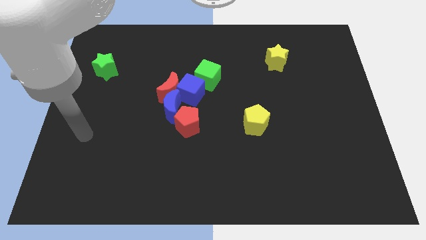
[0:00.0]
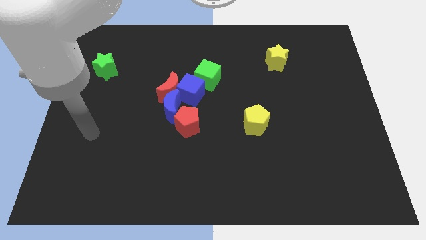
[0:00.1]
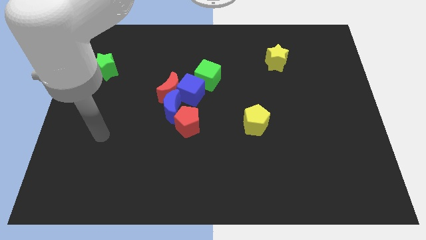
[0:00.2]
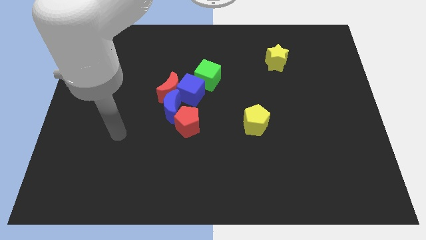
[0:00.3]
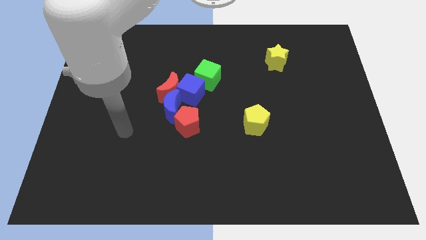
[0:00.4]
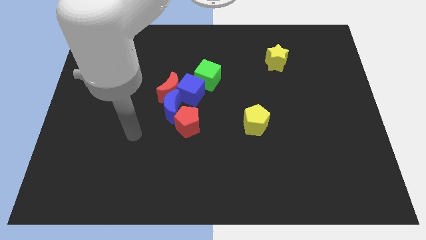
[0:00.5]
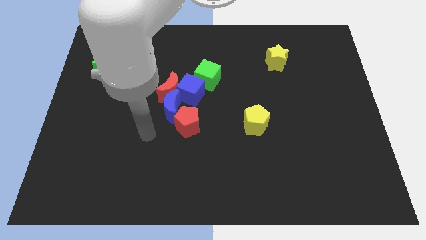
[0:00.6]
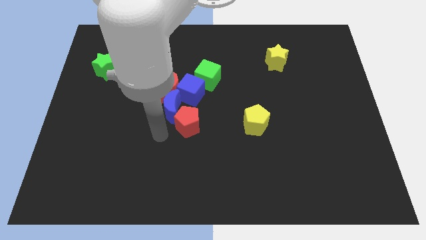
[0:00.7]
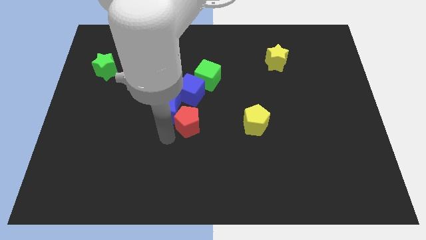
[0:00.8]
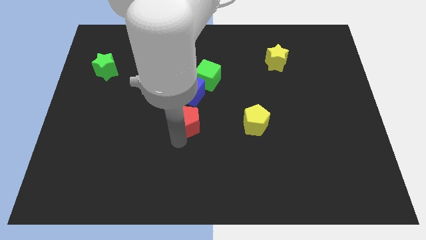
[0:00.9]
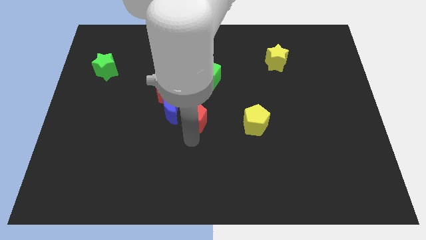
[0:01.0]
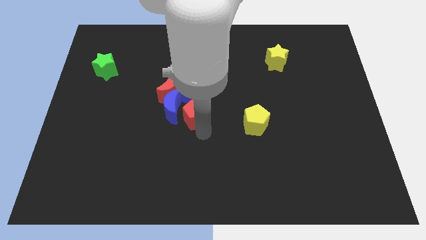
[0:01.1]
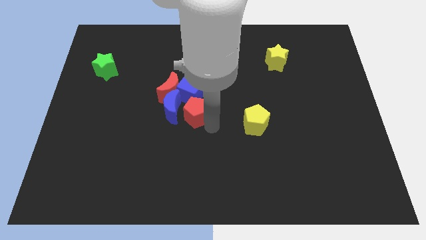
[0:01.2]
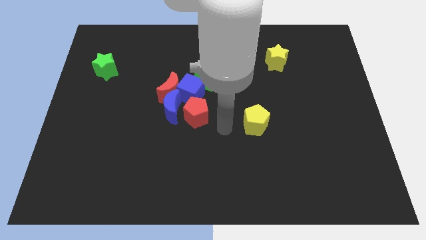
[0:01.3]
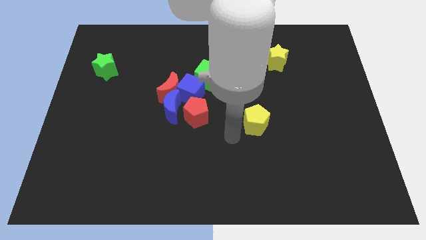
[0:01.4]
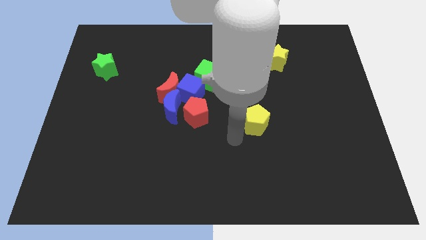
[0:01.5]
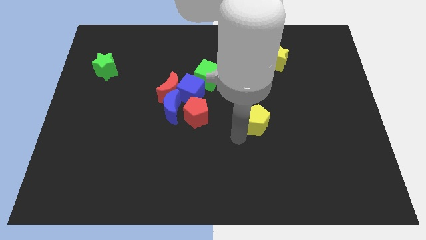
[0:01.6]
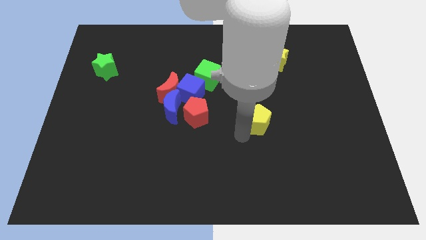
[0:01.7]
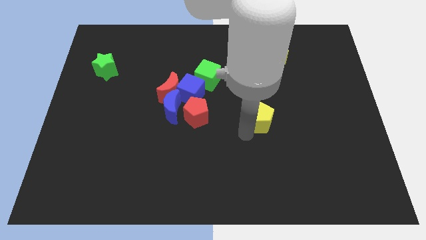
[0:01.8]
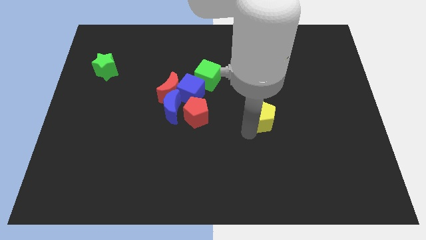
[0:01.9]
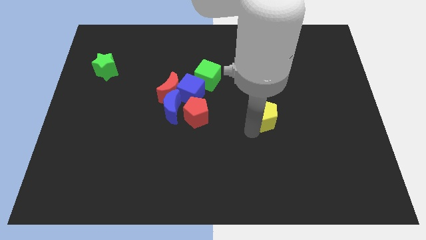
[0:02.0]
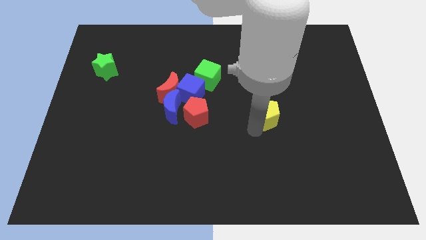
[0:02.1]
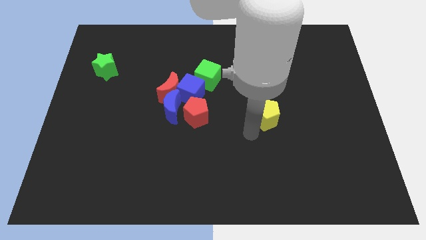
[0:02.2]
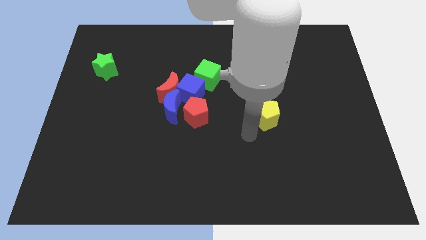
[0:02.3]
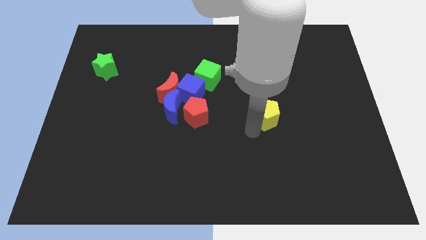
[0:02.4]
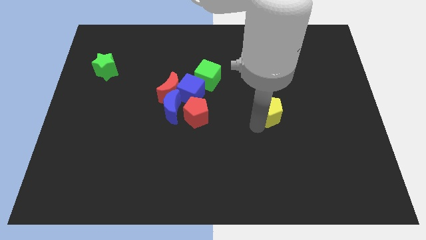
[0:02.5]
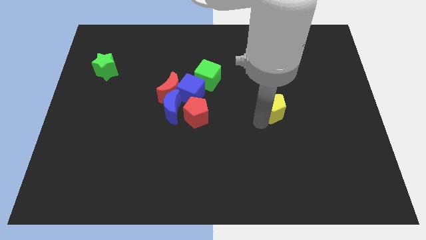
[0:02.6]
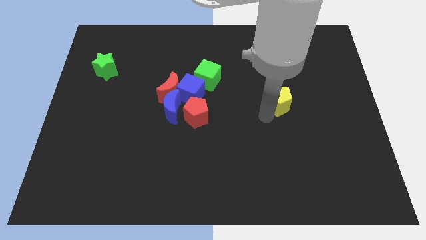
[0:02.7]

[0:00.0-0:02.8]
slide the yellow pentagon a little bit upwards and then right

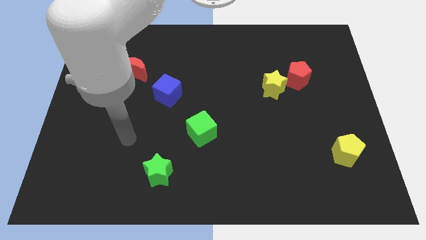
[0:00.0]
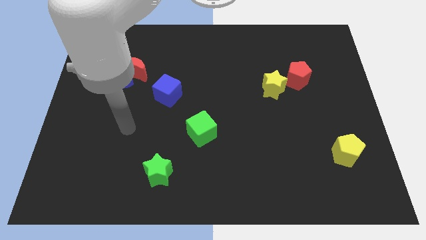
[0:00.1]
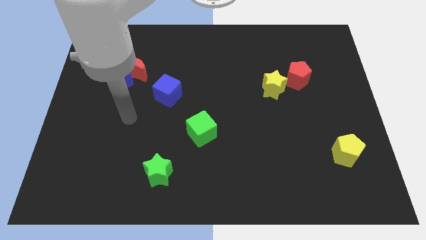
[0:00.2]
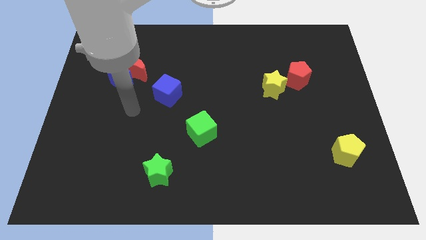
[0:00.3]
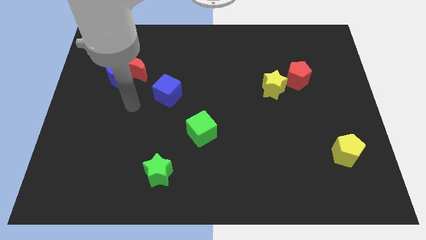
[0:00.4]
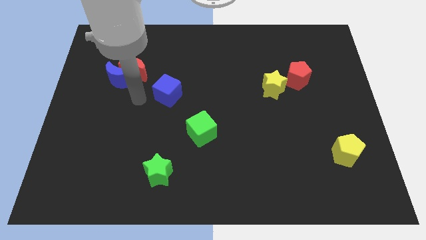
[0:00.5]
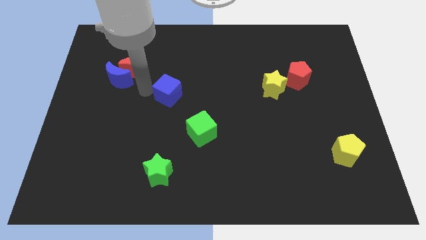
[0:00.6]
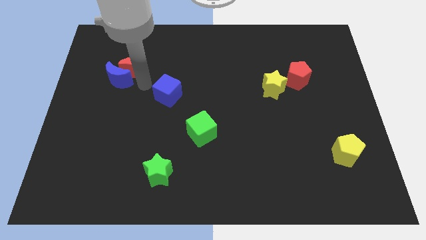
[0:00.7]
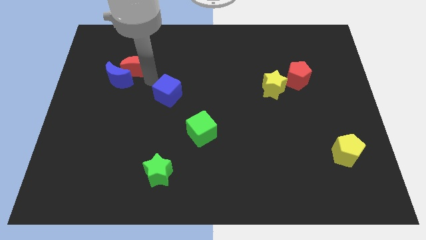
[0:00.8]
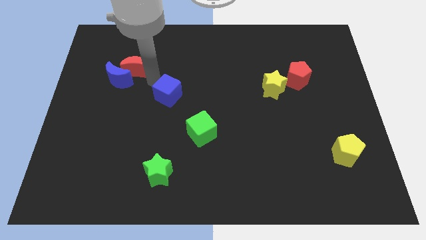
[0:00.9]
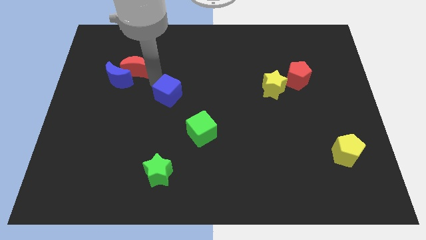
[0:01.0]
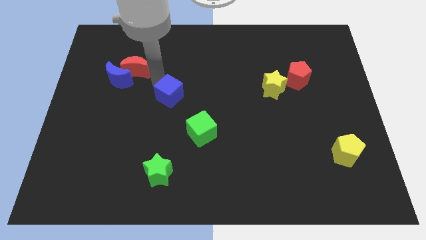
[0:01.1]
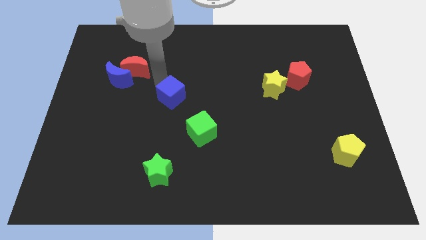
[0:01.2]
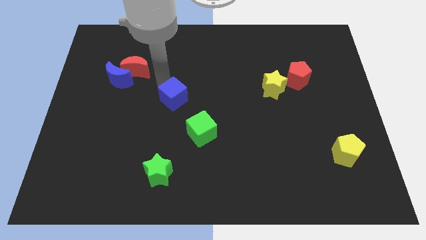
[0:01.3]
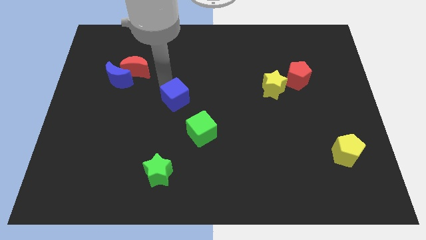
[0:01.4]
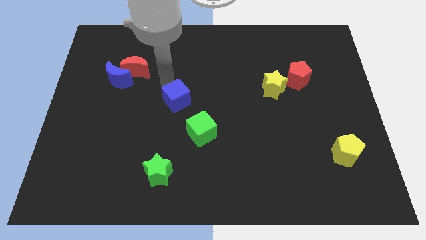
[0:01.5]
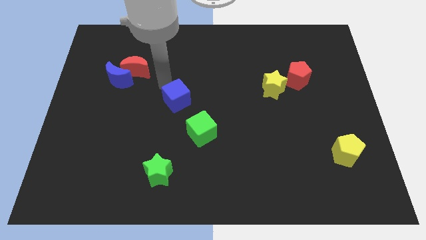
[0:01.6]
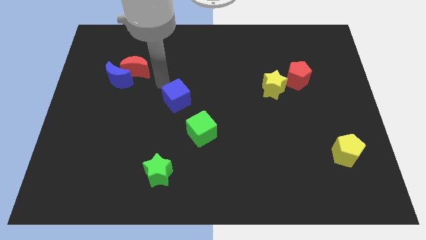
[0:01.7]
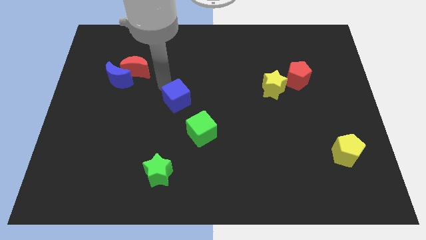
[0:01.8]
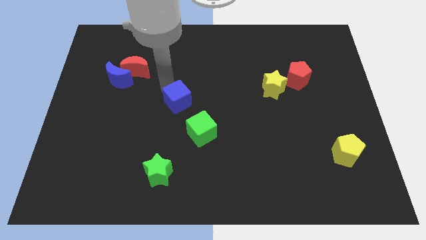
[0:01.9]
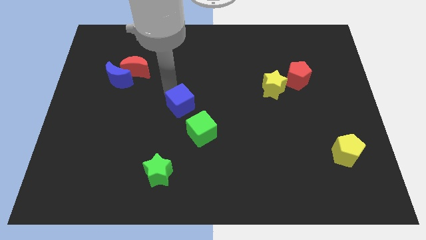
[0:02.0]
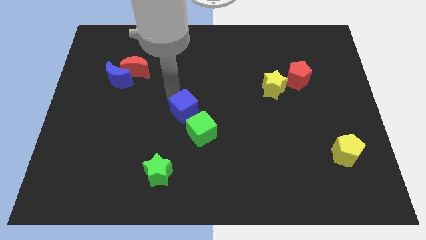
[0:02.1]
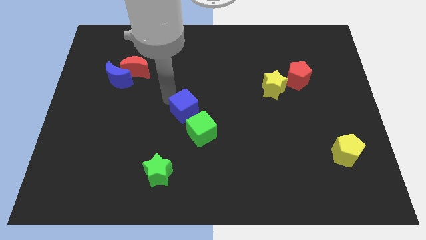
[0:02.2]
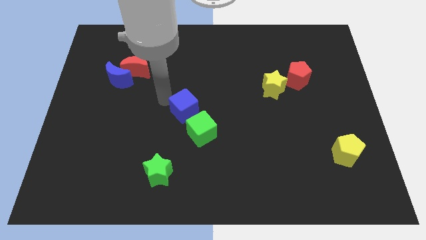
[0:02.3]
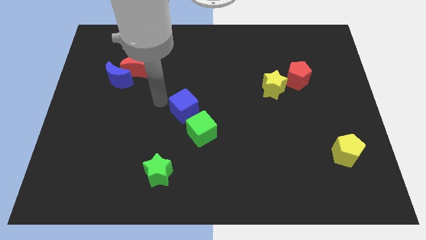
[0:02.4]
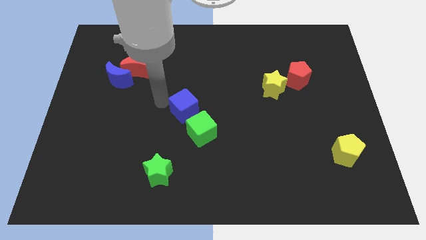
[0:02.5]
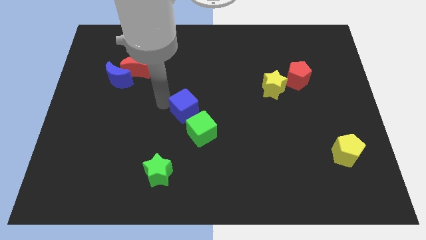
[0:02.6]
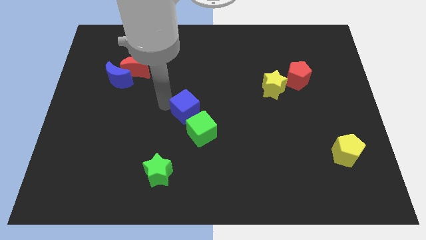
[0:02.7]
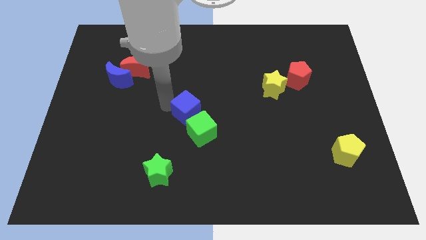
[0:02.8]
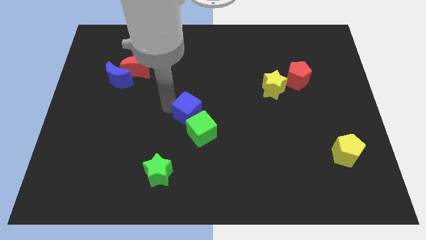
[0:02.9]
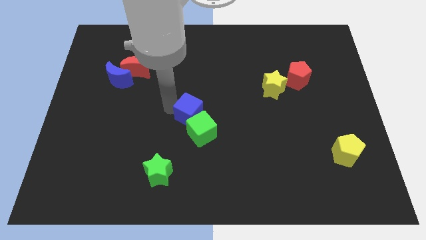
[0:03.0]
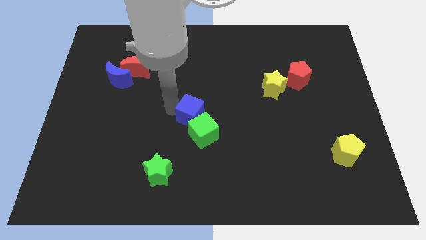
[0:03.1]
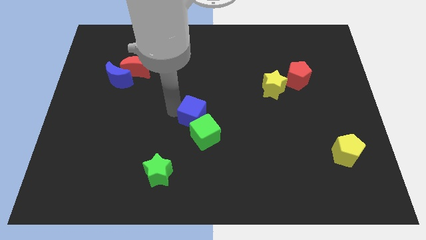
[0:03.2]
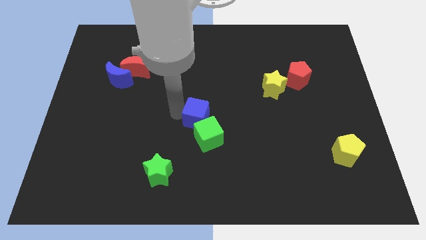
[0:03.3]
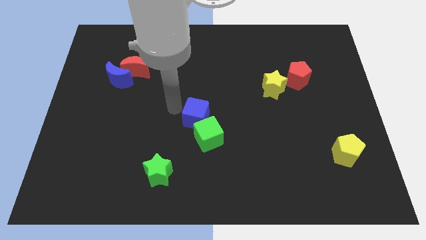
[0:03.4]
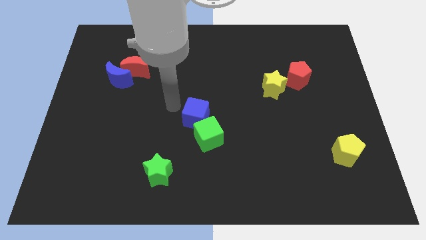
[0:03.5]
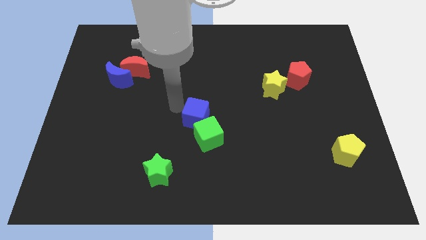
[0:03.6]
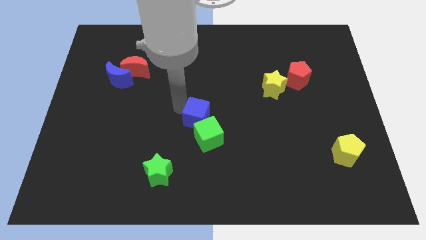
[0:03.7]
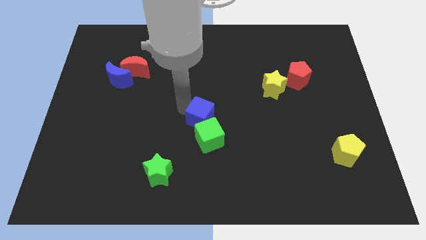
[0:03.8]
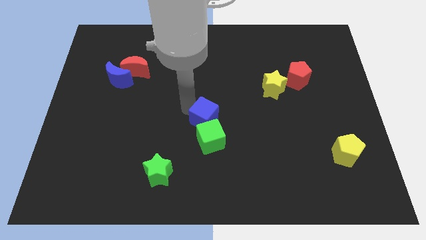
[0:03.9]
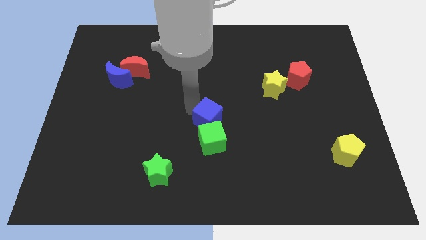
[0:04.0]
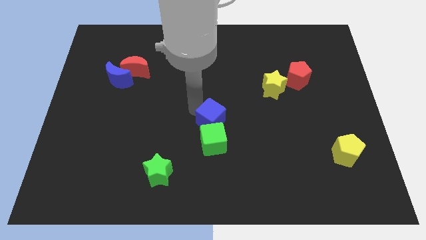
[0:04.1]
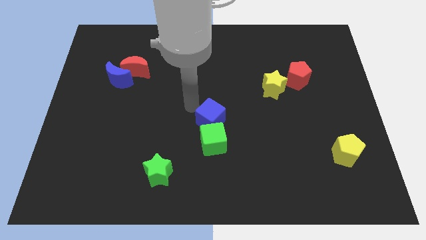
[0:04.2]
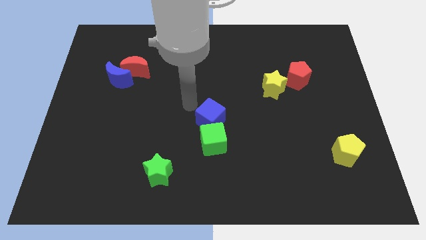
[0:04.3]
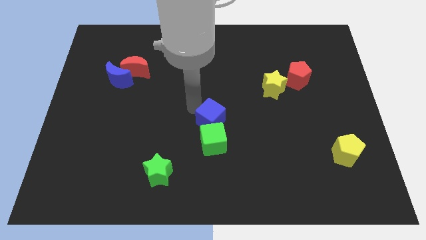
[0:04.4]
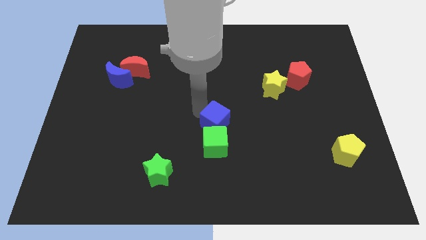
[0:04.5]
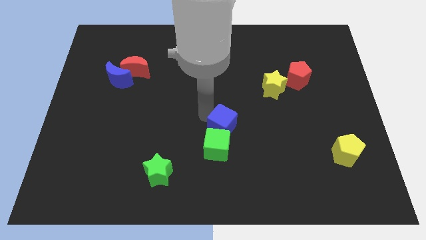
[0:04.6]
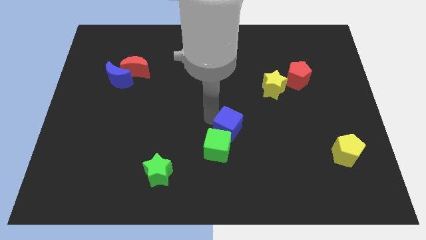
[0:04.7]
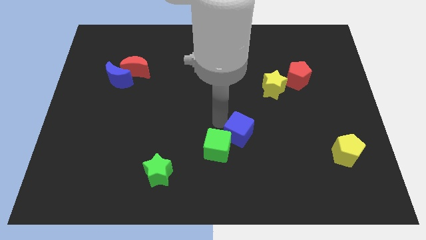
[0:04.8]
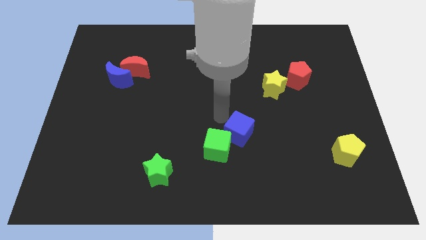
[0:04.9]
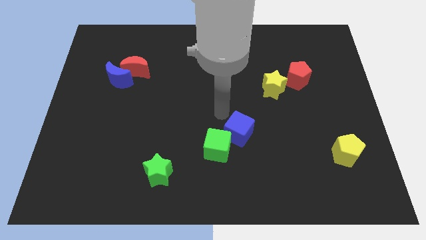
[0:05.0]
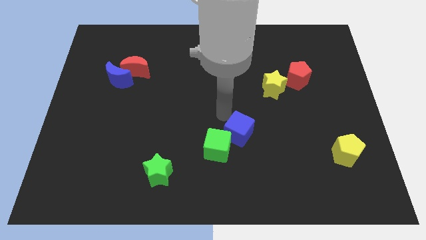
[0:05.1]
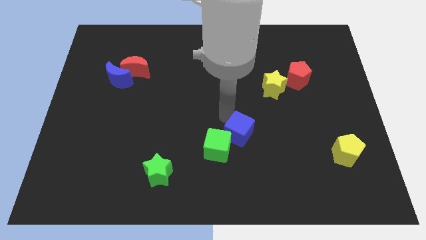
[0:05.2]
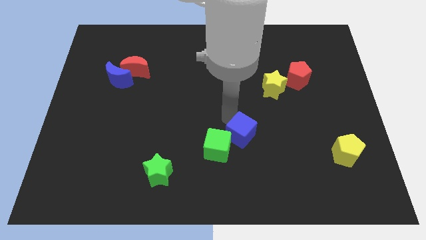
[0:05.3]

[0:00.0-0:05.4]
move the blue cube down and then to the right
